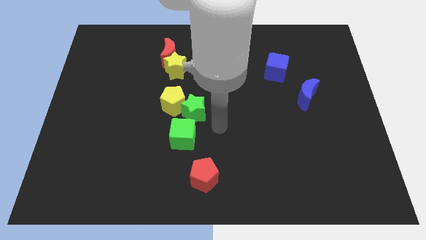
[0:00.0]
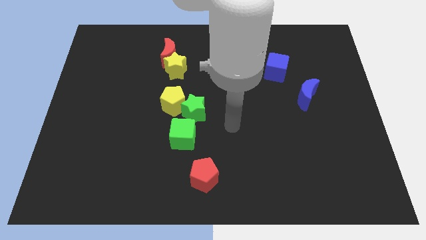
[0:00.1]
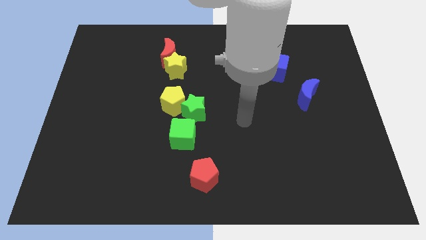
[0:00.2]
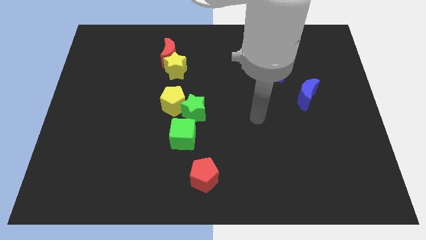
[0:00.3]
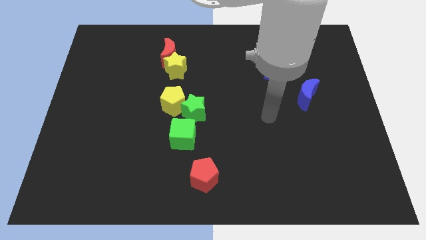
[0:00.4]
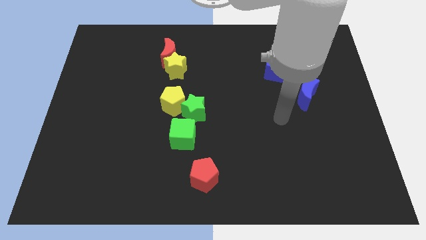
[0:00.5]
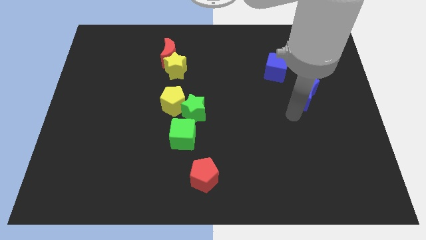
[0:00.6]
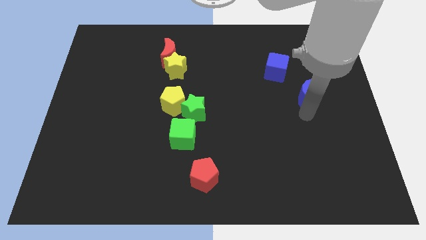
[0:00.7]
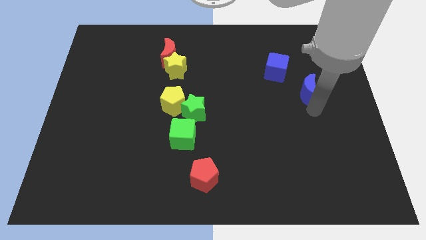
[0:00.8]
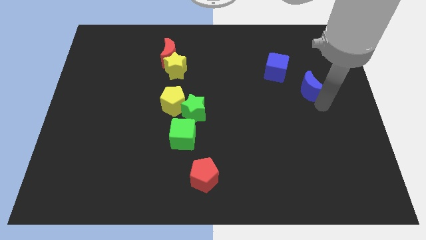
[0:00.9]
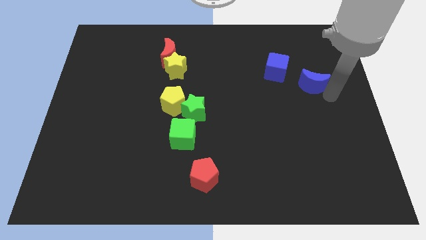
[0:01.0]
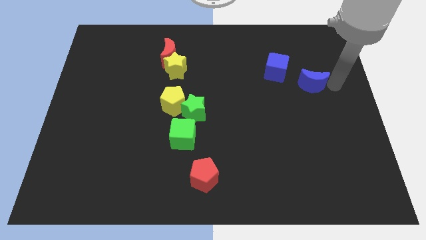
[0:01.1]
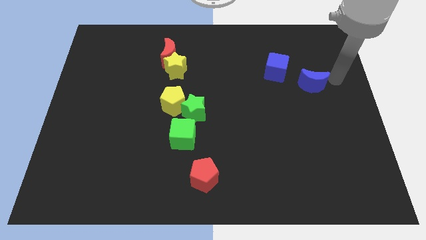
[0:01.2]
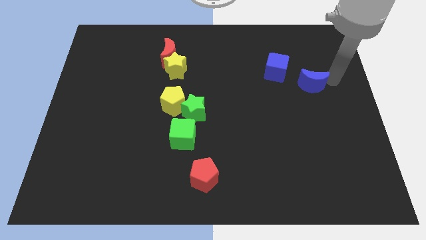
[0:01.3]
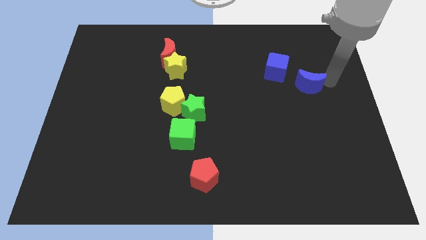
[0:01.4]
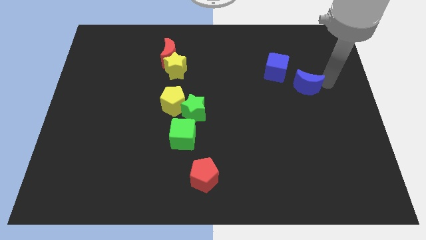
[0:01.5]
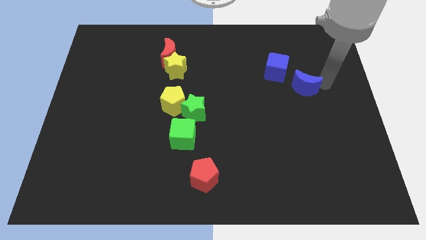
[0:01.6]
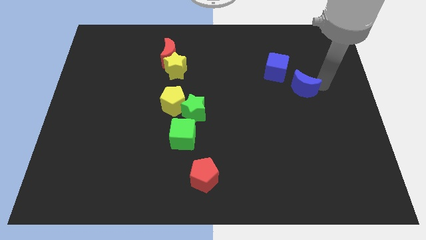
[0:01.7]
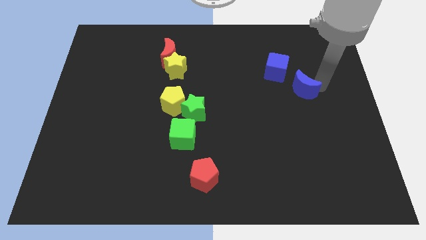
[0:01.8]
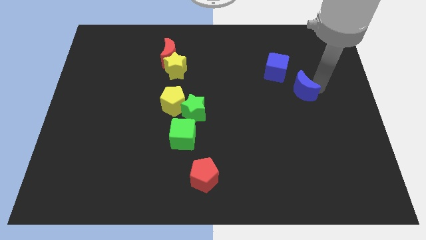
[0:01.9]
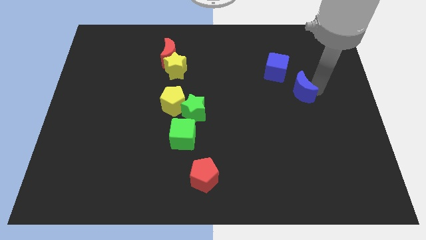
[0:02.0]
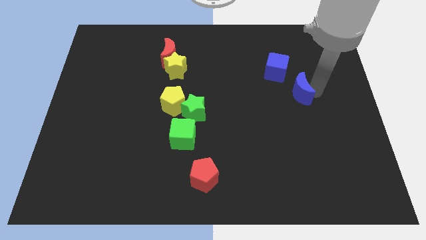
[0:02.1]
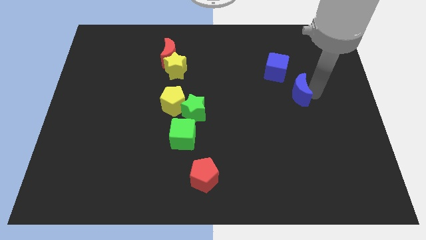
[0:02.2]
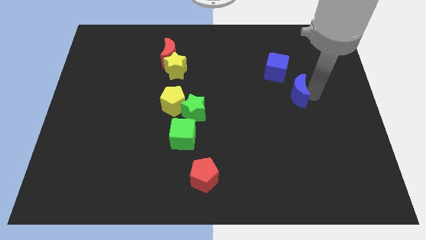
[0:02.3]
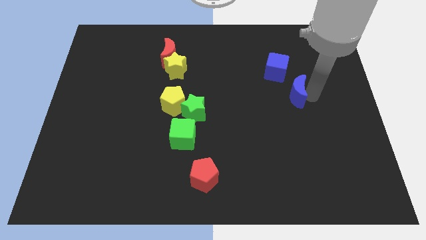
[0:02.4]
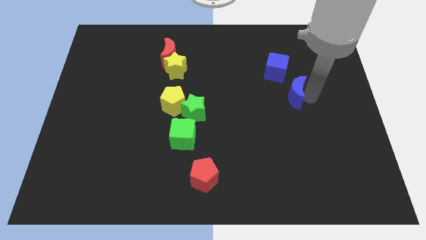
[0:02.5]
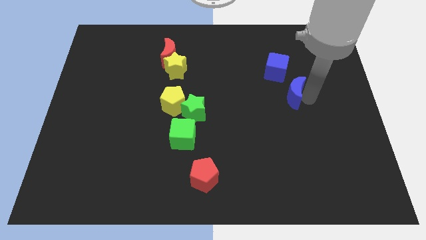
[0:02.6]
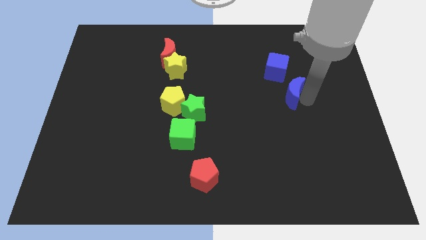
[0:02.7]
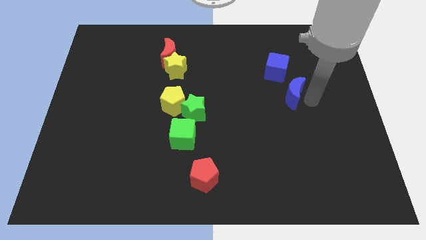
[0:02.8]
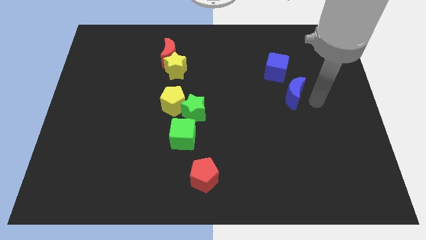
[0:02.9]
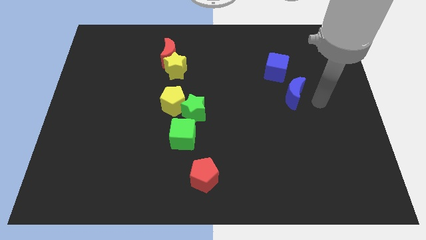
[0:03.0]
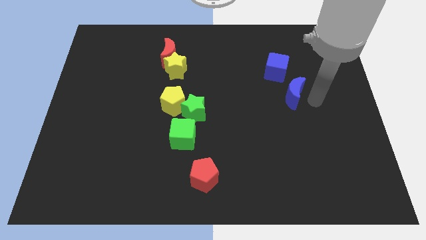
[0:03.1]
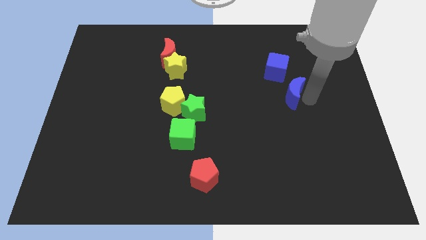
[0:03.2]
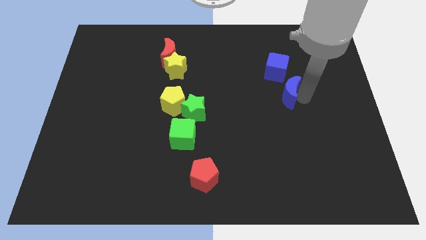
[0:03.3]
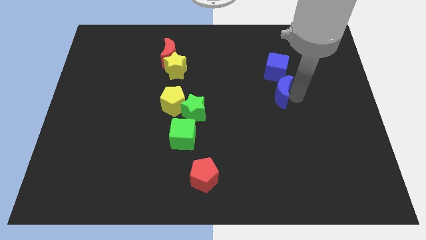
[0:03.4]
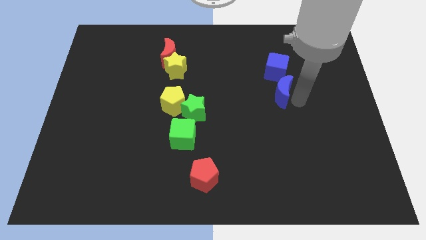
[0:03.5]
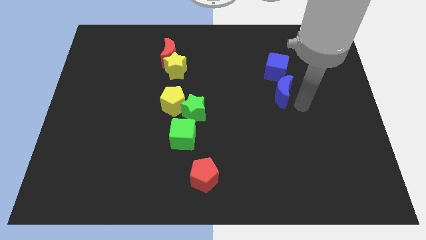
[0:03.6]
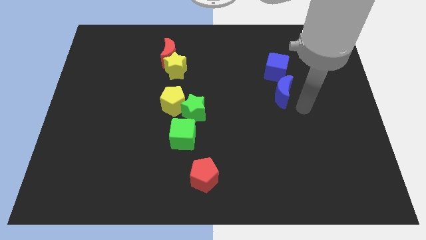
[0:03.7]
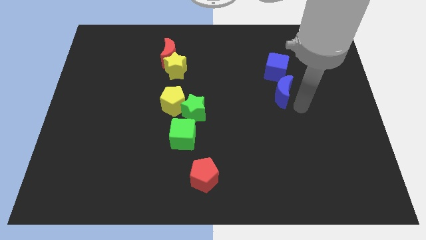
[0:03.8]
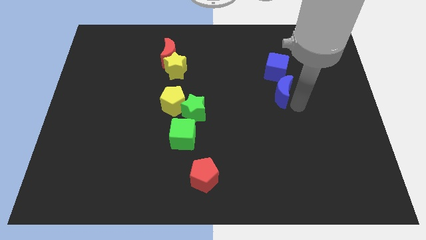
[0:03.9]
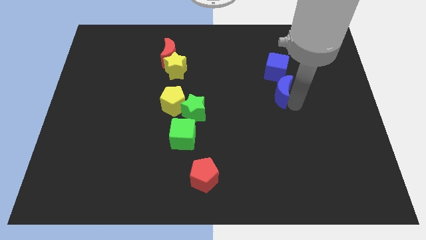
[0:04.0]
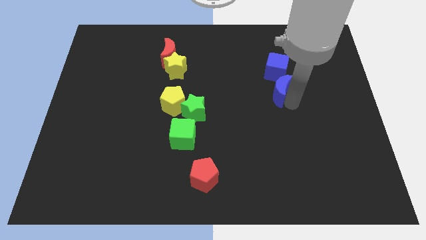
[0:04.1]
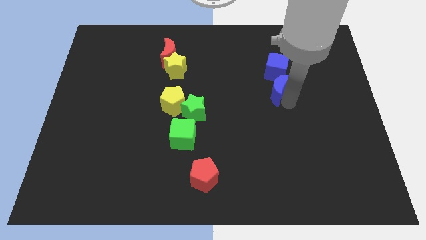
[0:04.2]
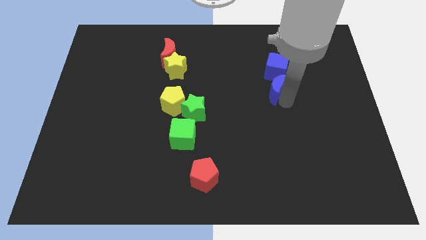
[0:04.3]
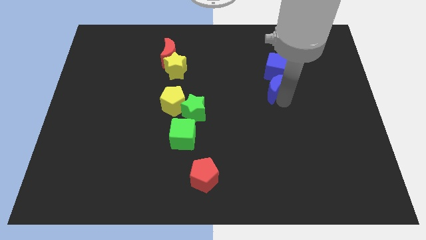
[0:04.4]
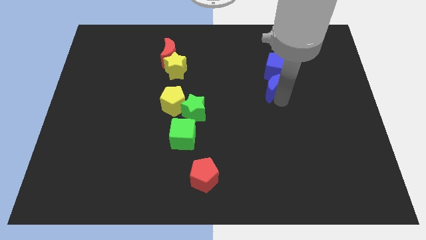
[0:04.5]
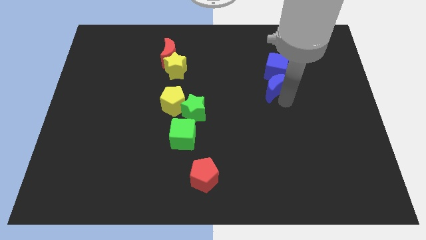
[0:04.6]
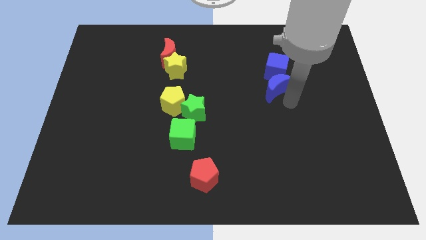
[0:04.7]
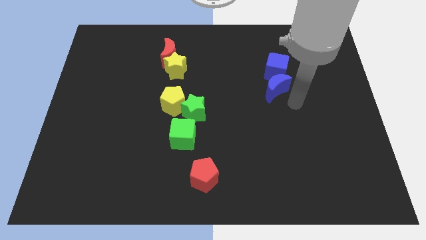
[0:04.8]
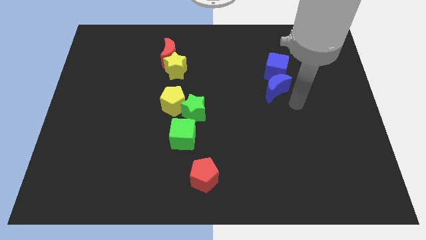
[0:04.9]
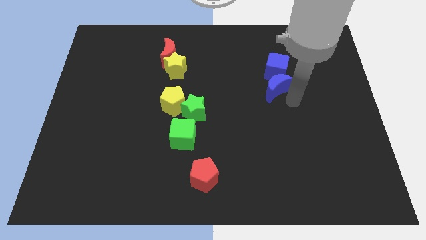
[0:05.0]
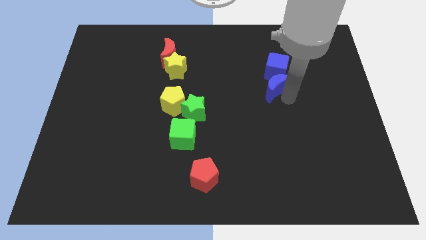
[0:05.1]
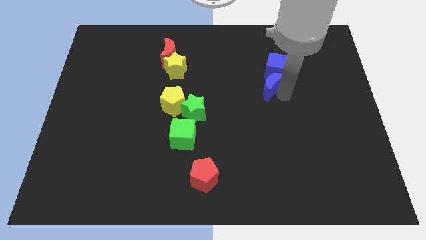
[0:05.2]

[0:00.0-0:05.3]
slide the blue moon diagonally upwards and left slightly

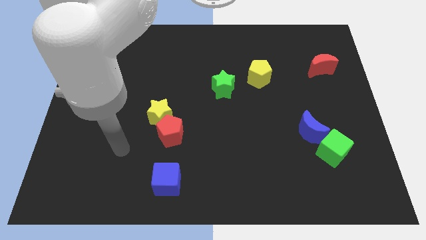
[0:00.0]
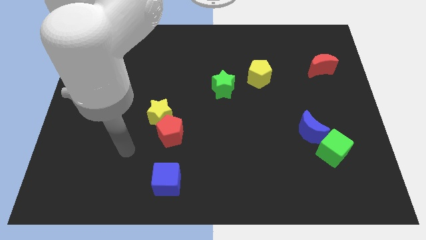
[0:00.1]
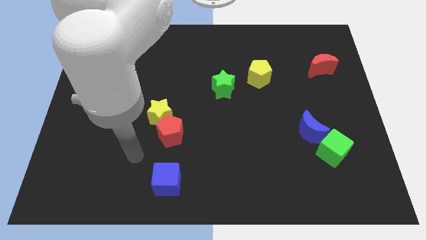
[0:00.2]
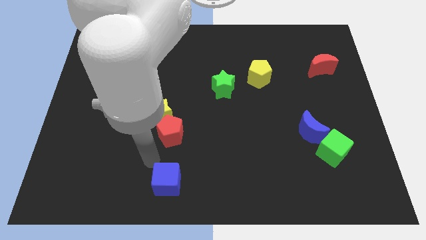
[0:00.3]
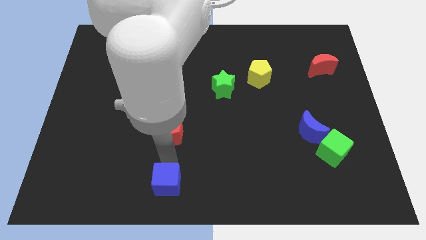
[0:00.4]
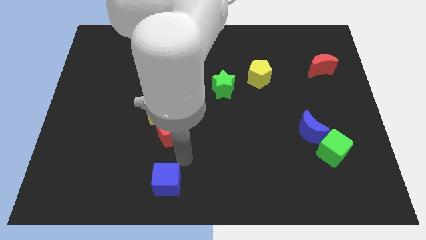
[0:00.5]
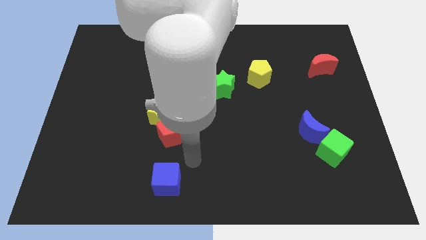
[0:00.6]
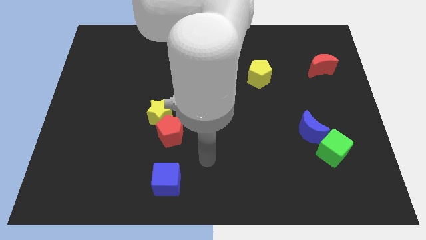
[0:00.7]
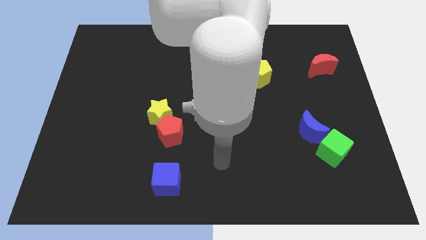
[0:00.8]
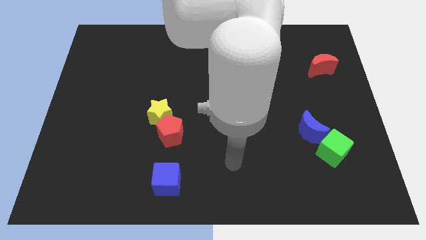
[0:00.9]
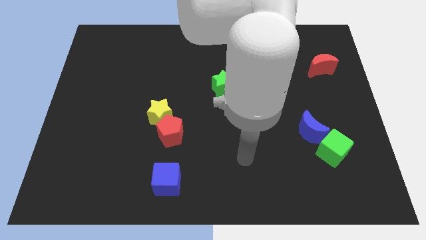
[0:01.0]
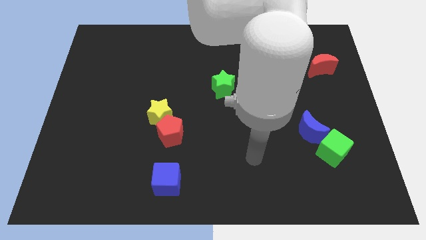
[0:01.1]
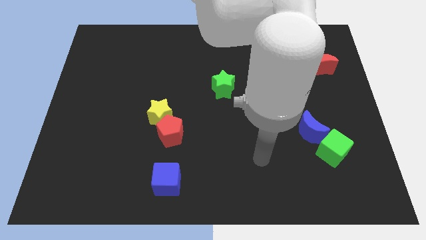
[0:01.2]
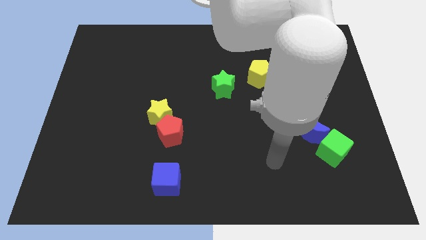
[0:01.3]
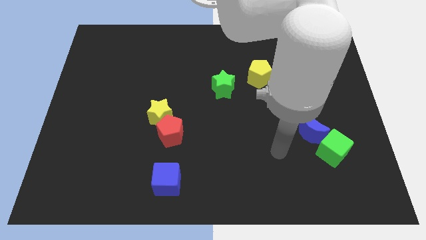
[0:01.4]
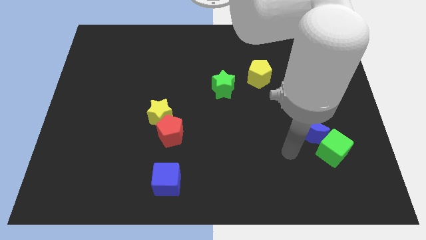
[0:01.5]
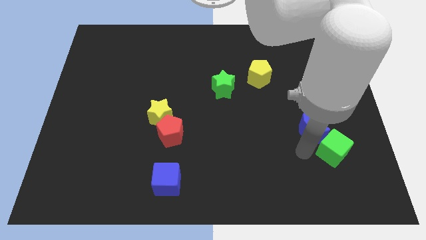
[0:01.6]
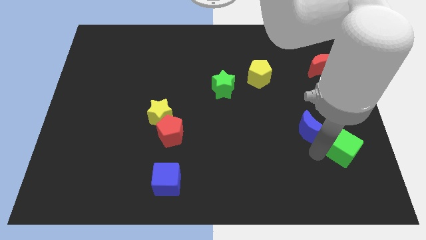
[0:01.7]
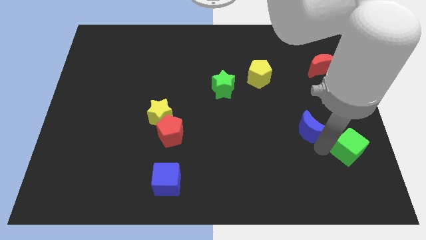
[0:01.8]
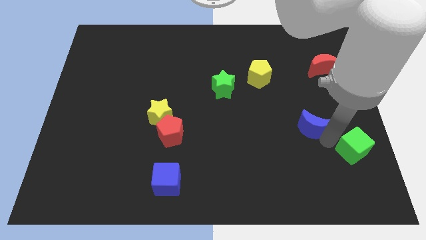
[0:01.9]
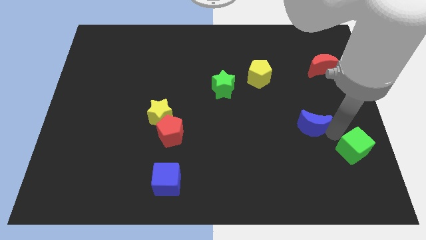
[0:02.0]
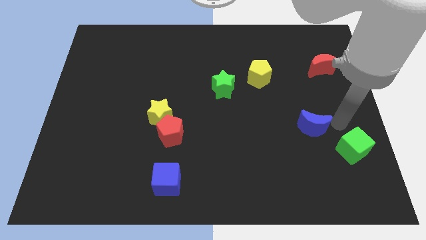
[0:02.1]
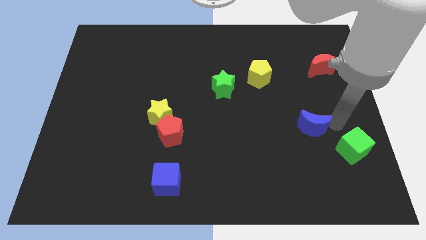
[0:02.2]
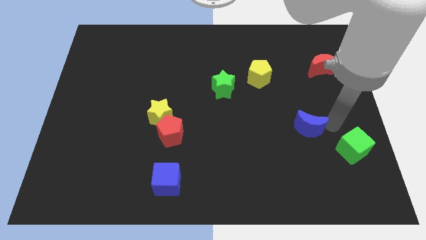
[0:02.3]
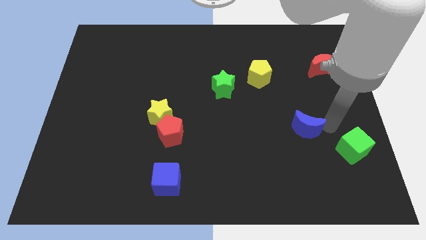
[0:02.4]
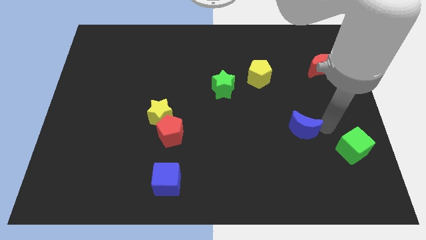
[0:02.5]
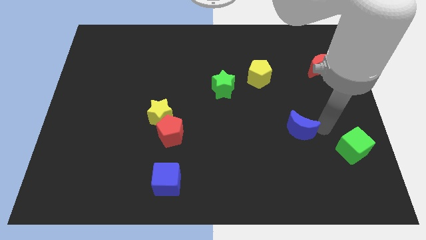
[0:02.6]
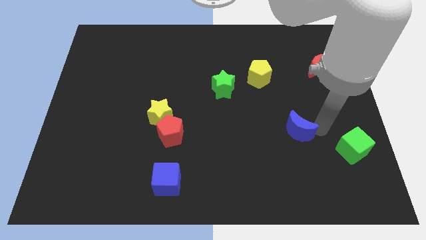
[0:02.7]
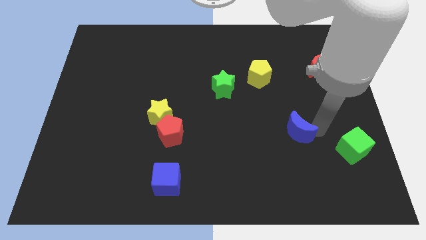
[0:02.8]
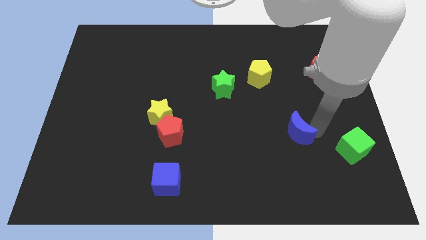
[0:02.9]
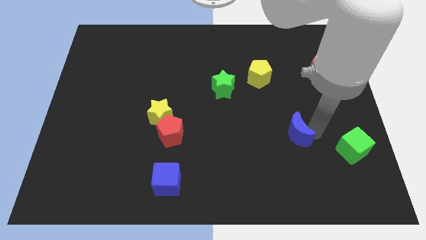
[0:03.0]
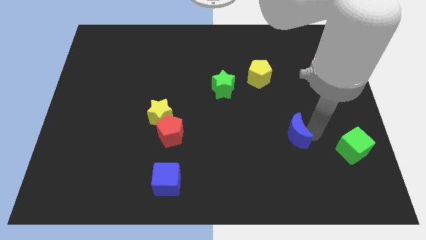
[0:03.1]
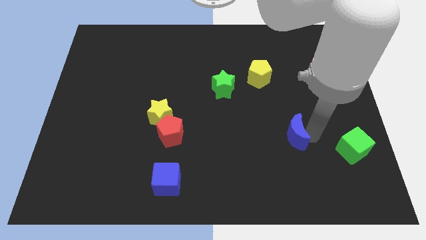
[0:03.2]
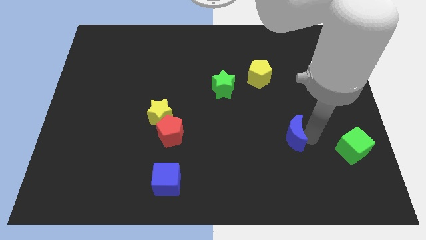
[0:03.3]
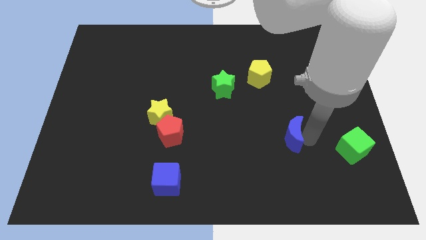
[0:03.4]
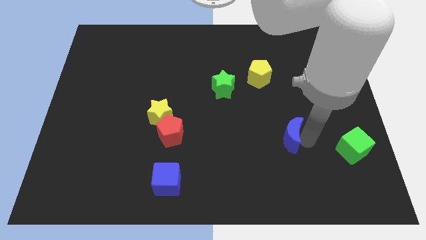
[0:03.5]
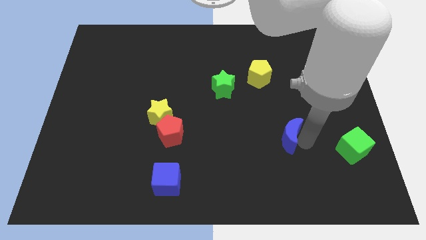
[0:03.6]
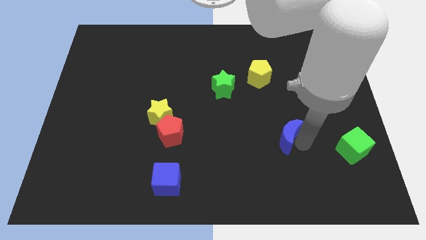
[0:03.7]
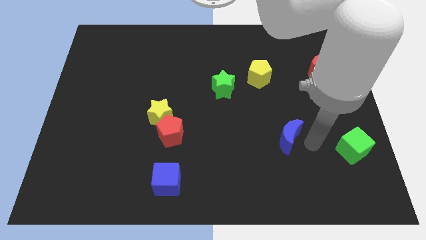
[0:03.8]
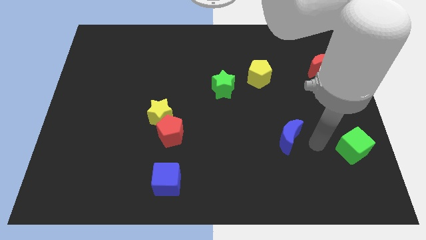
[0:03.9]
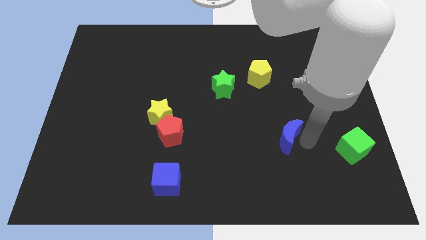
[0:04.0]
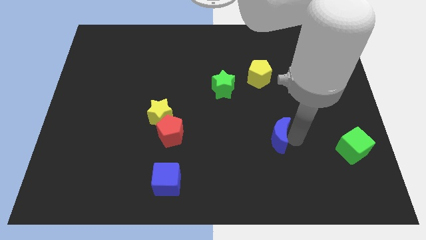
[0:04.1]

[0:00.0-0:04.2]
slightly move the blue moon left
